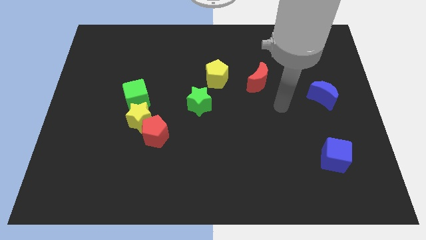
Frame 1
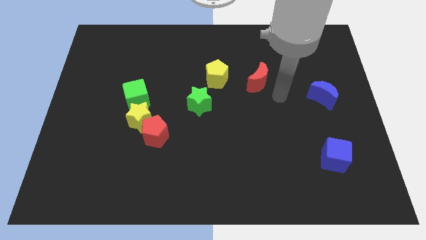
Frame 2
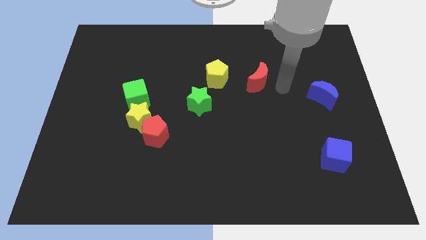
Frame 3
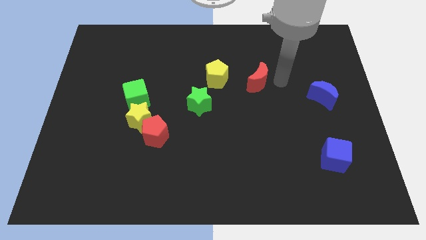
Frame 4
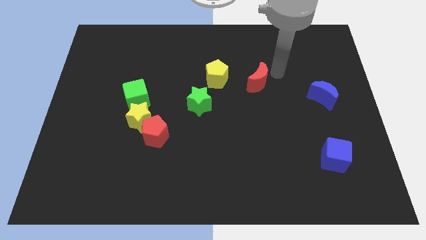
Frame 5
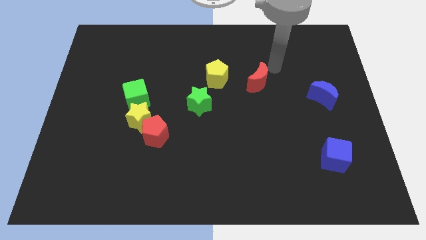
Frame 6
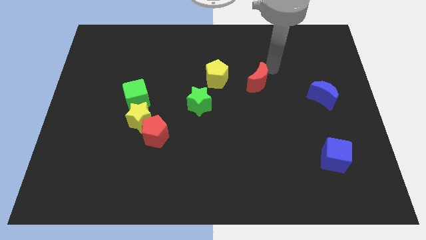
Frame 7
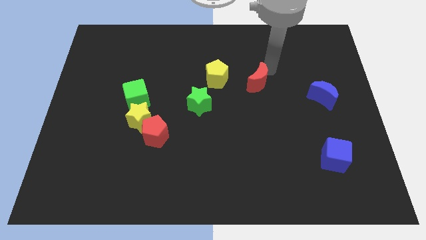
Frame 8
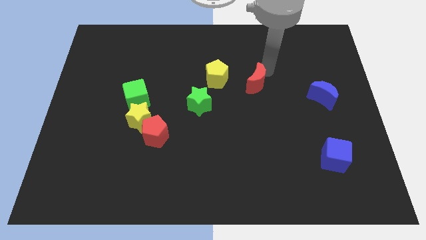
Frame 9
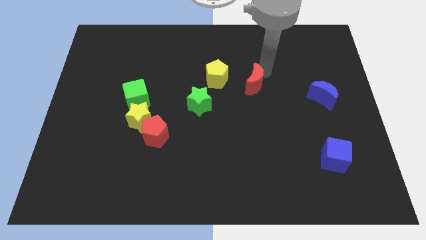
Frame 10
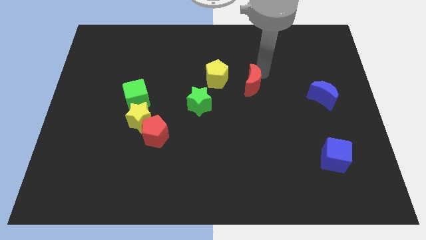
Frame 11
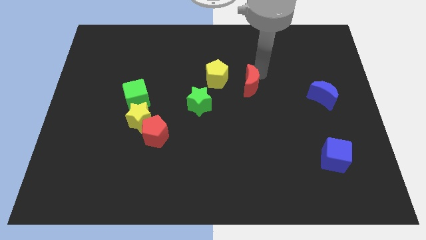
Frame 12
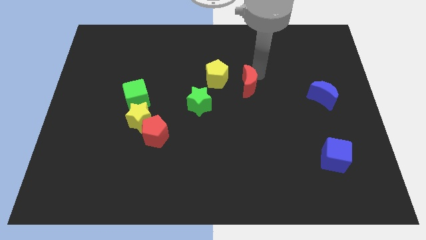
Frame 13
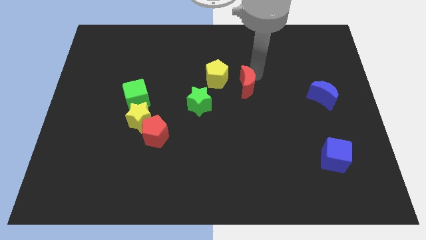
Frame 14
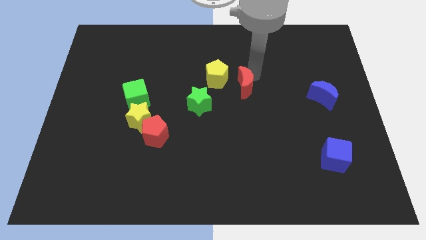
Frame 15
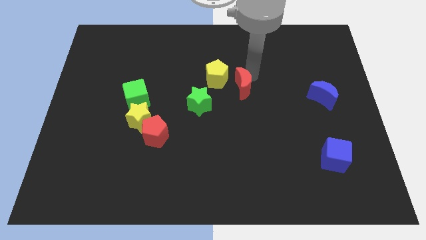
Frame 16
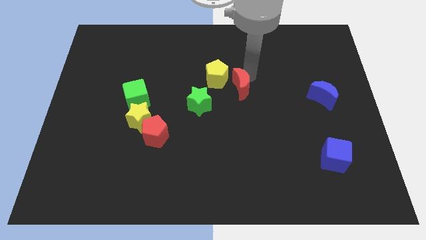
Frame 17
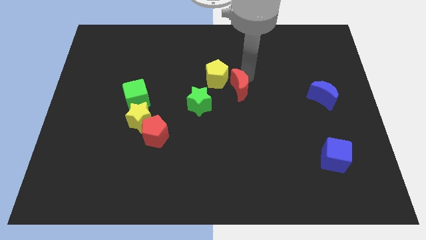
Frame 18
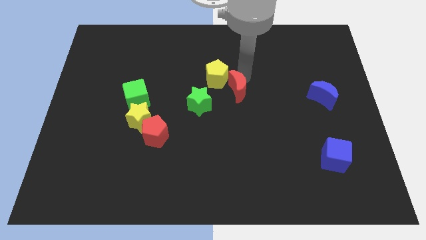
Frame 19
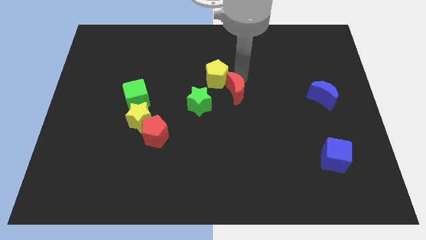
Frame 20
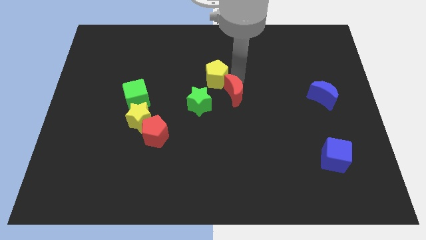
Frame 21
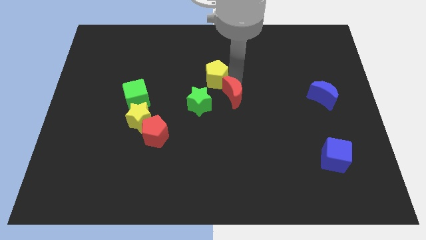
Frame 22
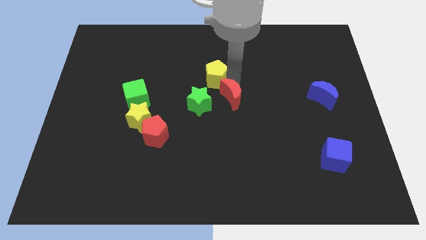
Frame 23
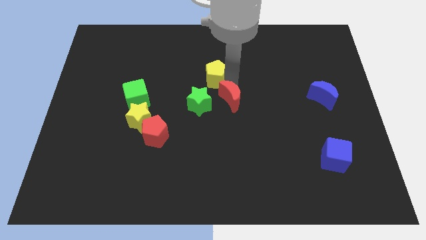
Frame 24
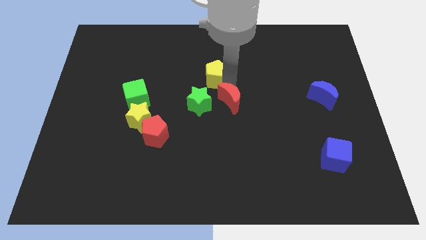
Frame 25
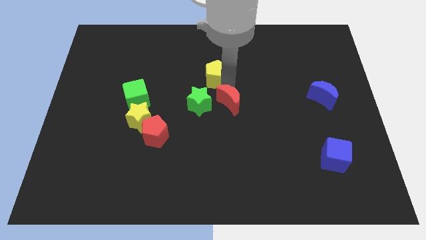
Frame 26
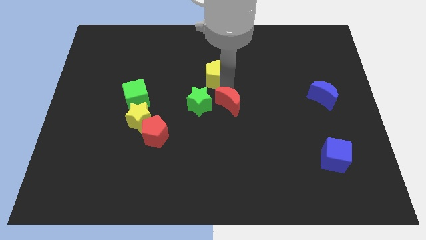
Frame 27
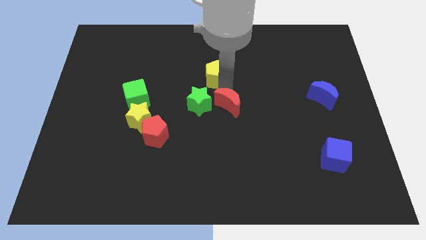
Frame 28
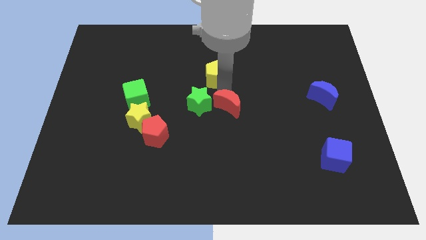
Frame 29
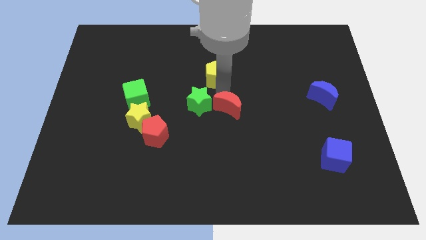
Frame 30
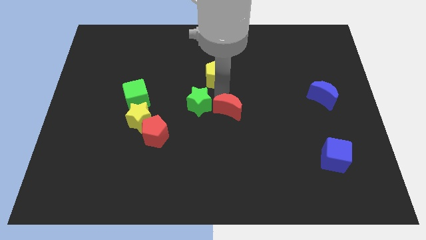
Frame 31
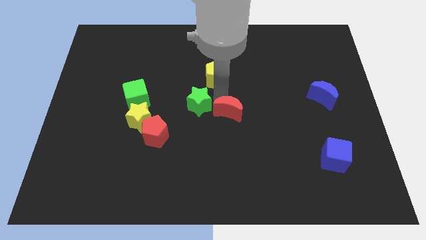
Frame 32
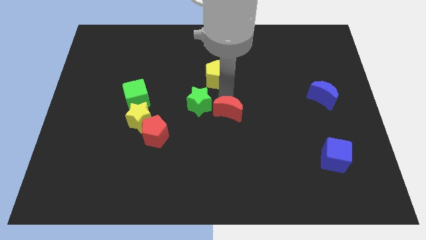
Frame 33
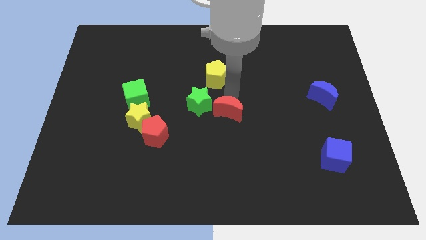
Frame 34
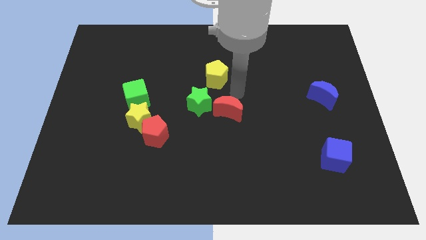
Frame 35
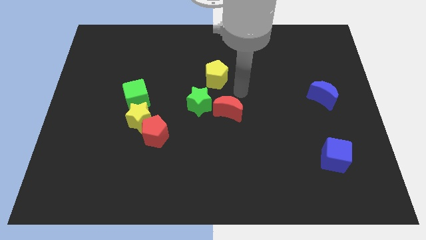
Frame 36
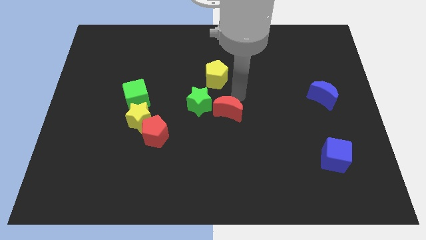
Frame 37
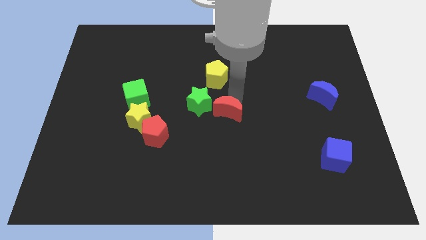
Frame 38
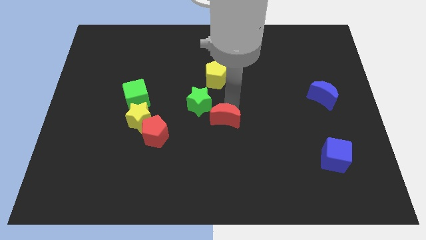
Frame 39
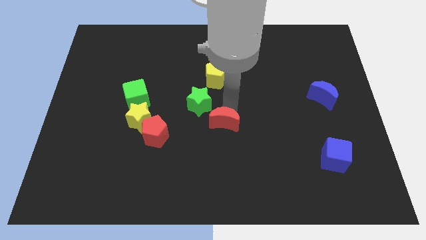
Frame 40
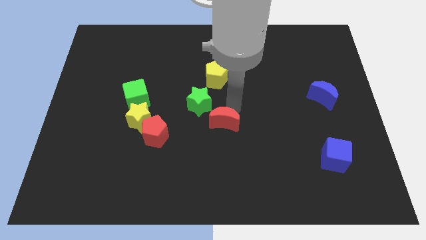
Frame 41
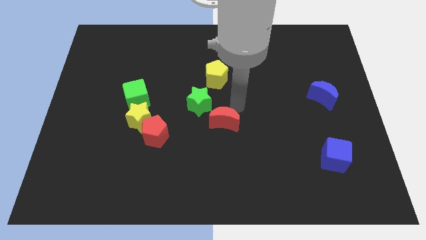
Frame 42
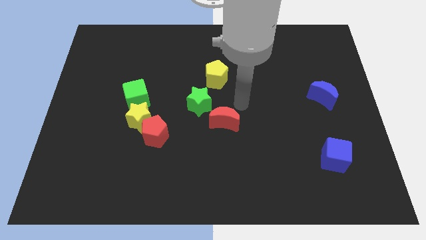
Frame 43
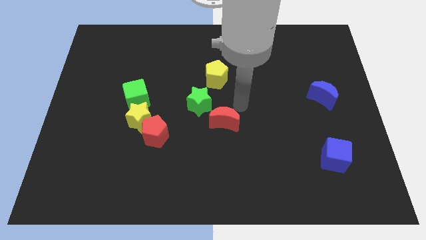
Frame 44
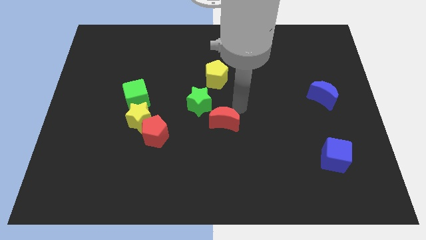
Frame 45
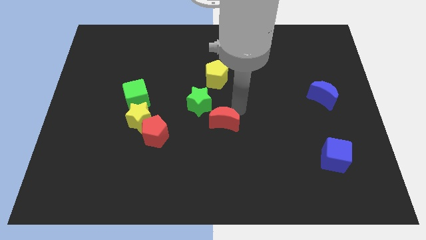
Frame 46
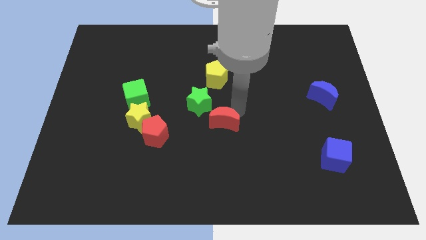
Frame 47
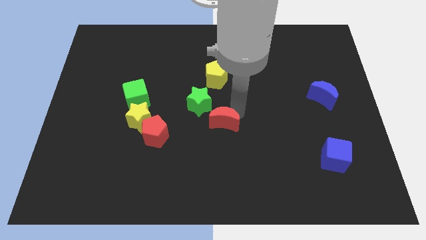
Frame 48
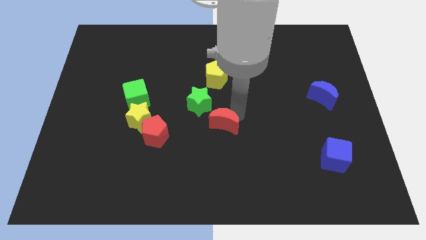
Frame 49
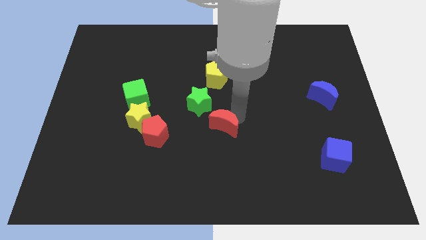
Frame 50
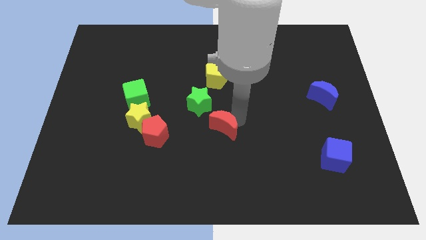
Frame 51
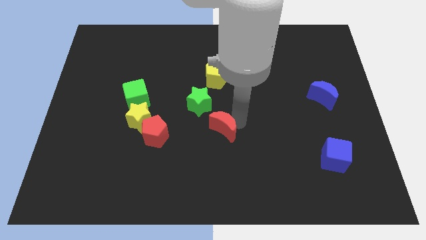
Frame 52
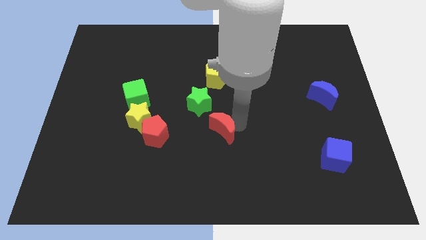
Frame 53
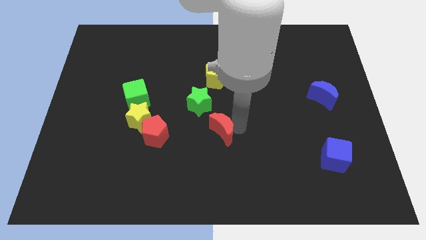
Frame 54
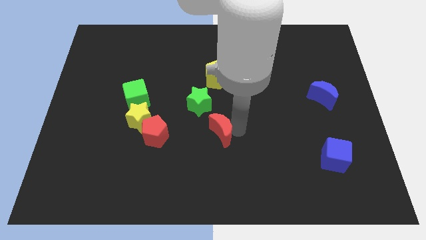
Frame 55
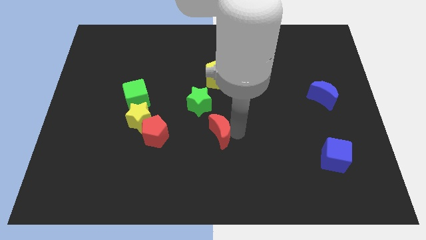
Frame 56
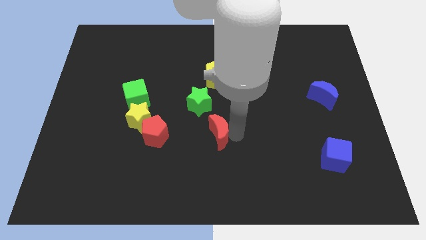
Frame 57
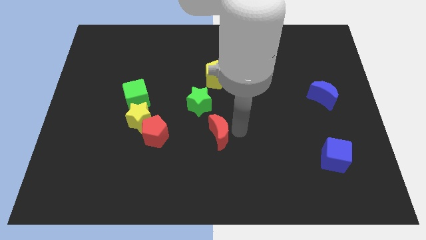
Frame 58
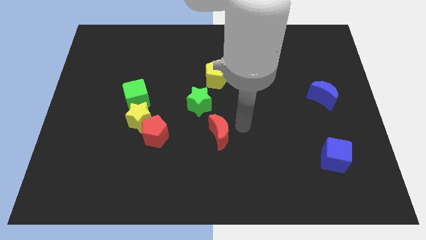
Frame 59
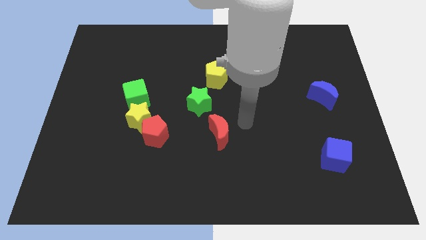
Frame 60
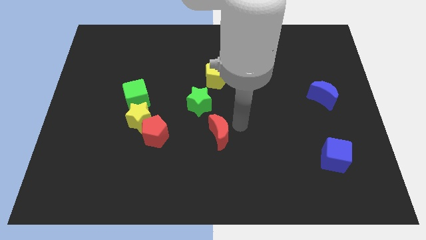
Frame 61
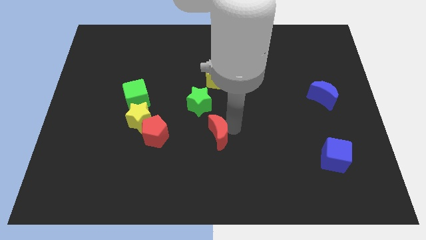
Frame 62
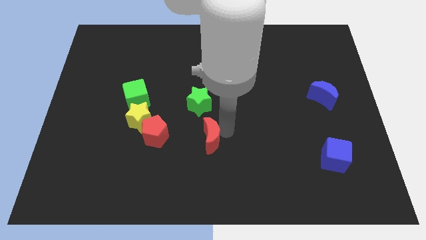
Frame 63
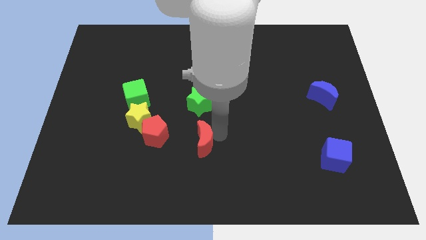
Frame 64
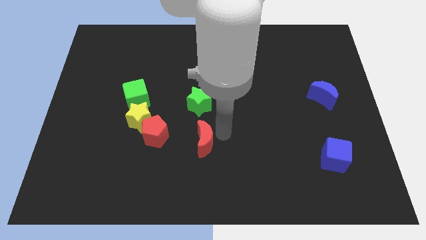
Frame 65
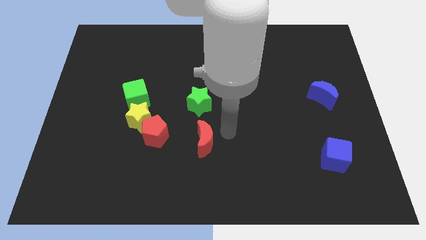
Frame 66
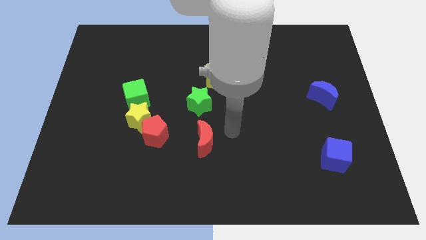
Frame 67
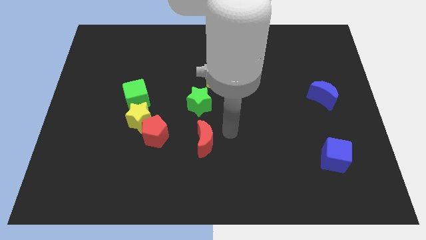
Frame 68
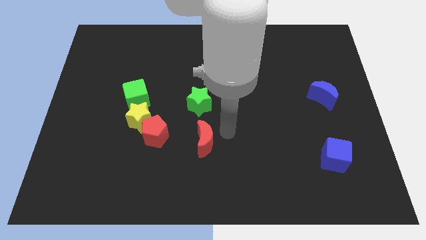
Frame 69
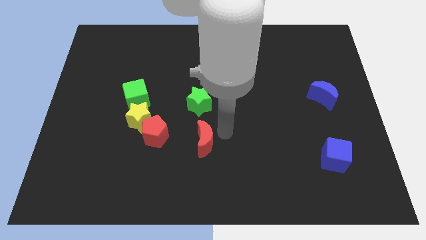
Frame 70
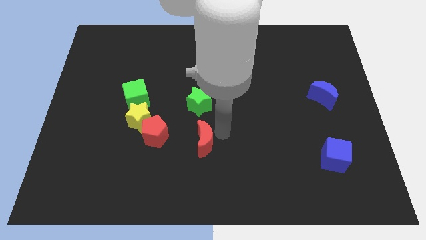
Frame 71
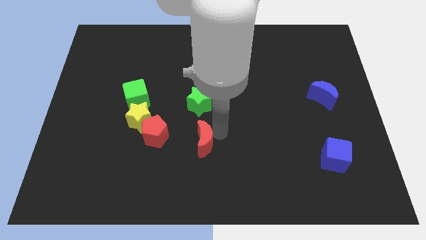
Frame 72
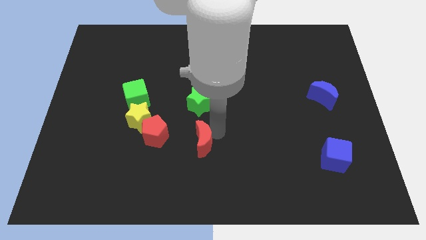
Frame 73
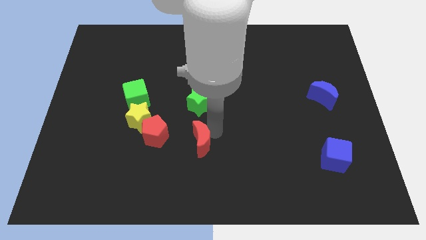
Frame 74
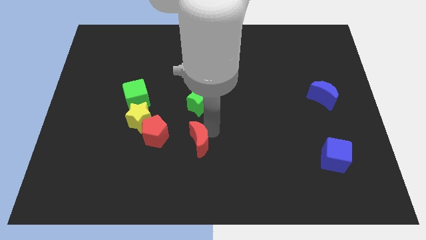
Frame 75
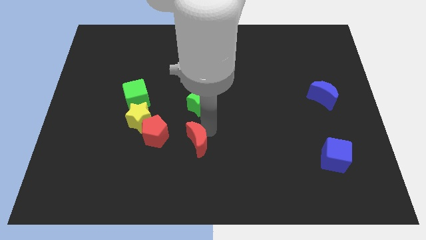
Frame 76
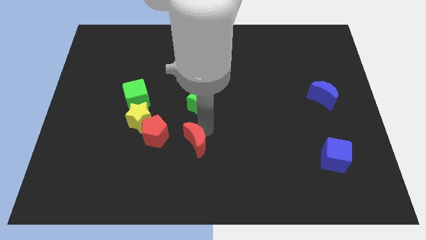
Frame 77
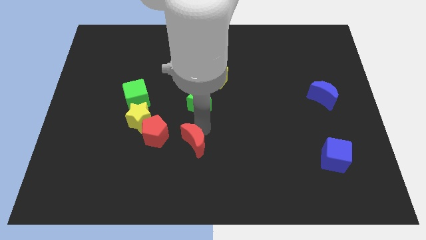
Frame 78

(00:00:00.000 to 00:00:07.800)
push the red moon to the bottom right side of the red pentagon
